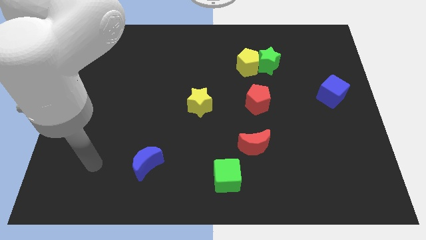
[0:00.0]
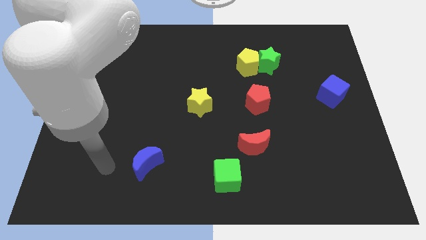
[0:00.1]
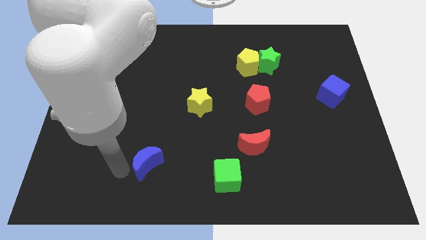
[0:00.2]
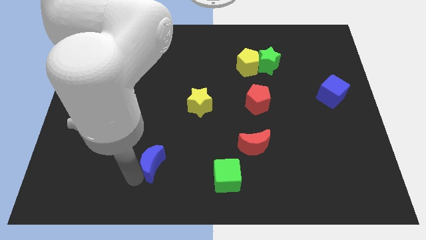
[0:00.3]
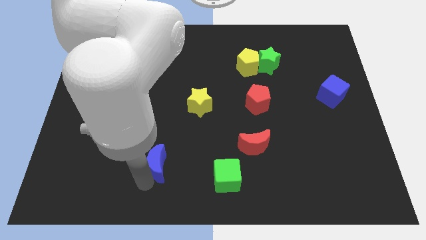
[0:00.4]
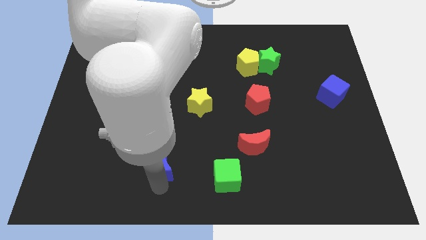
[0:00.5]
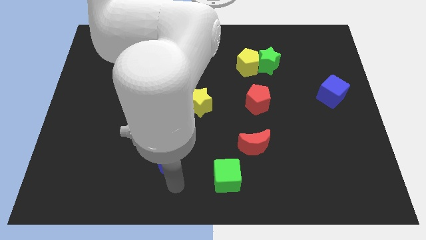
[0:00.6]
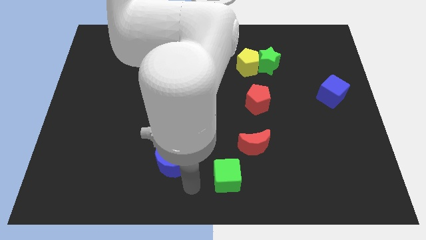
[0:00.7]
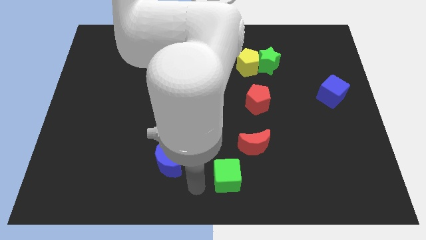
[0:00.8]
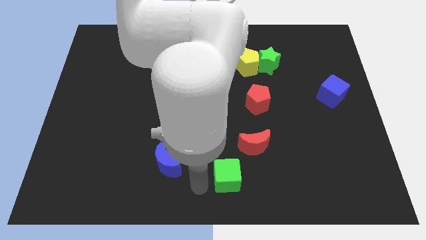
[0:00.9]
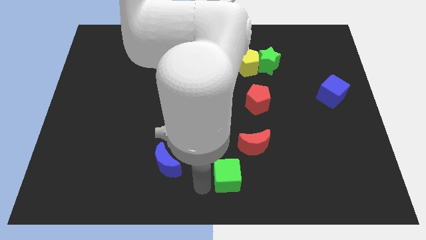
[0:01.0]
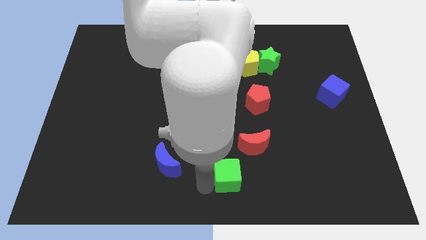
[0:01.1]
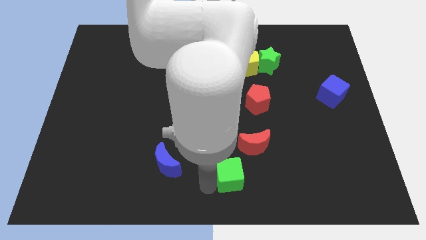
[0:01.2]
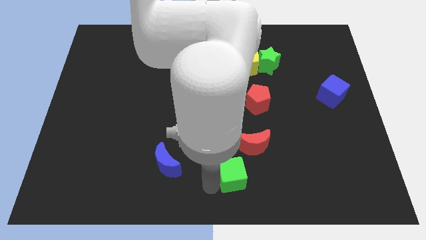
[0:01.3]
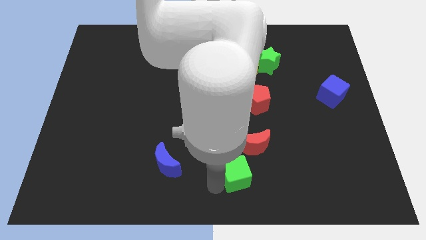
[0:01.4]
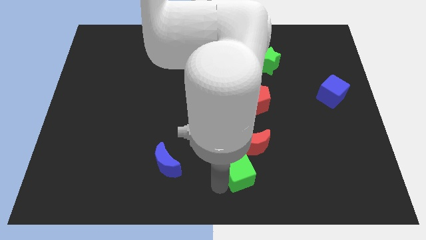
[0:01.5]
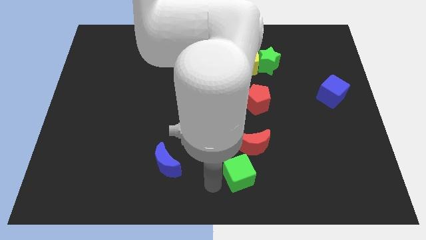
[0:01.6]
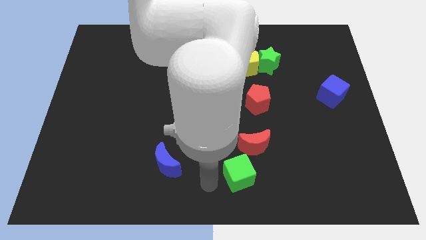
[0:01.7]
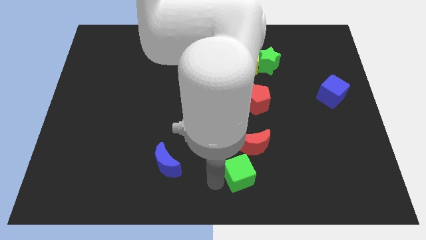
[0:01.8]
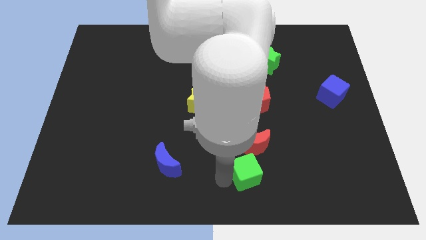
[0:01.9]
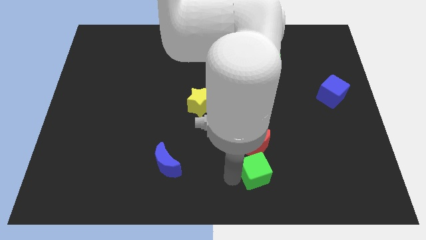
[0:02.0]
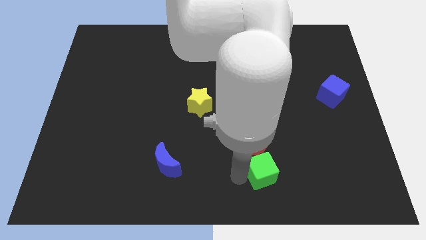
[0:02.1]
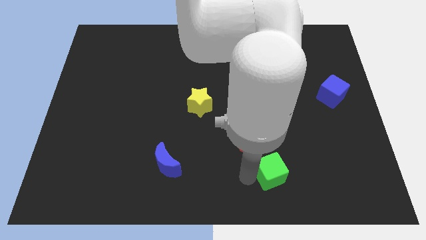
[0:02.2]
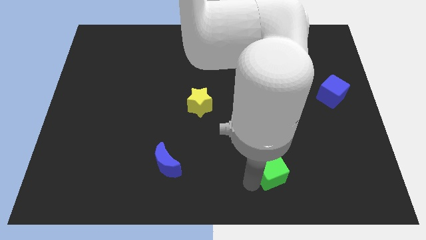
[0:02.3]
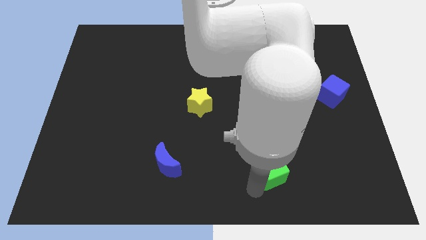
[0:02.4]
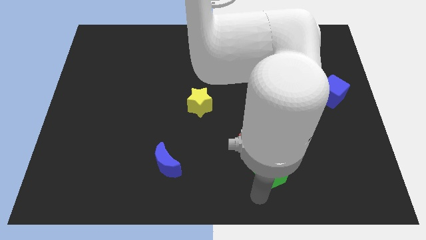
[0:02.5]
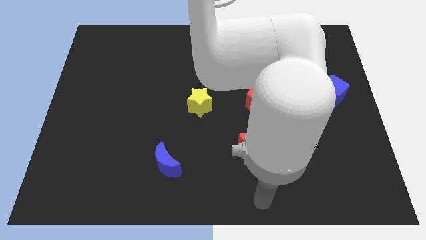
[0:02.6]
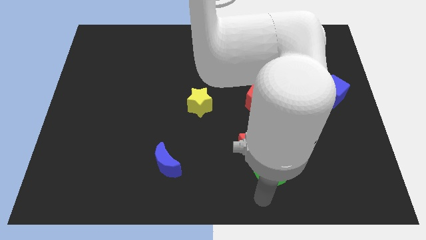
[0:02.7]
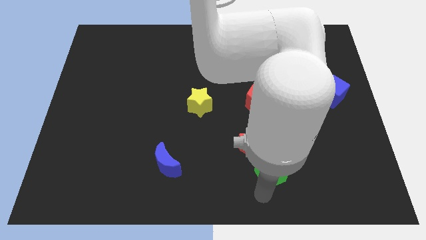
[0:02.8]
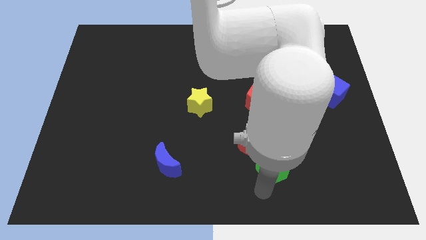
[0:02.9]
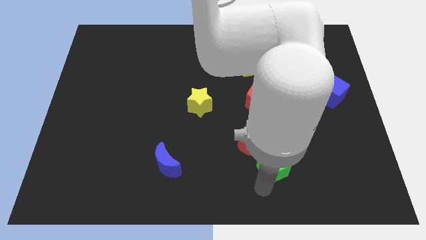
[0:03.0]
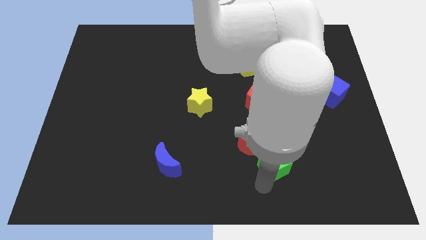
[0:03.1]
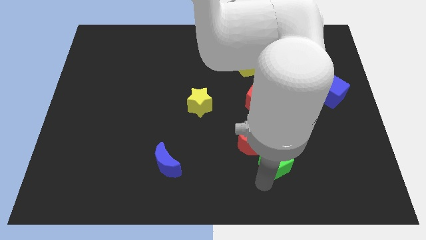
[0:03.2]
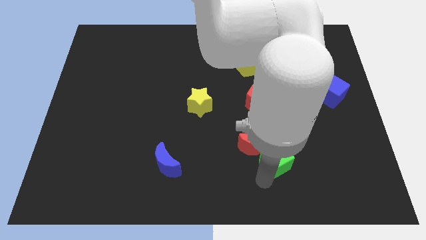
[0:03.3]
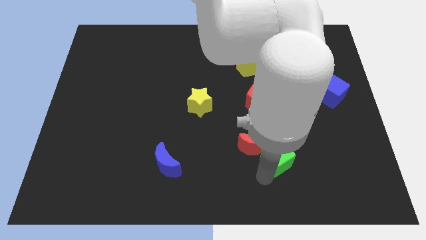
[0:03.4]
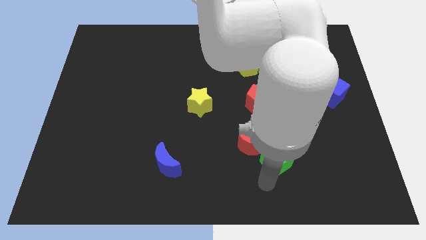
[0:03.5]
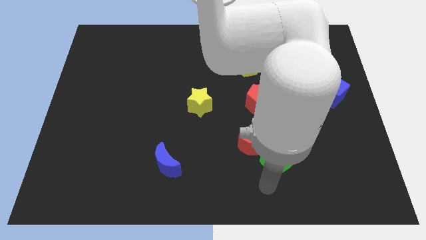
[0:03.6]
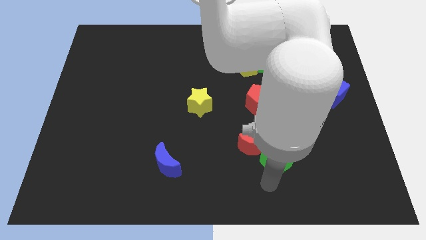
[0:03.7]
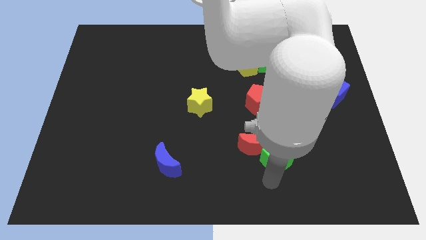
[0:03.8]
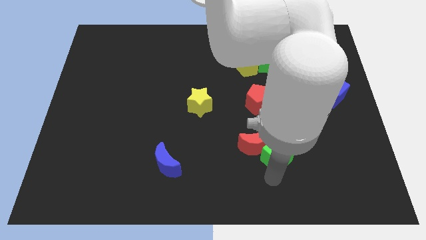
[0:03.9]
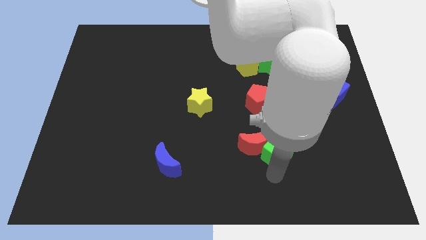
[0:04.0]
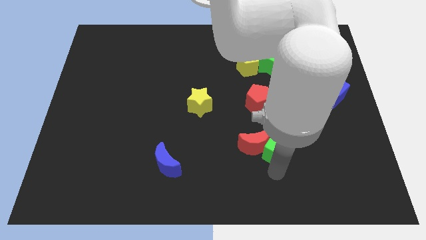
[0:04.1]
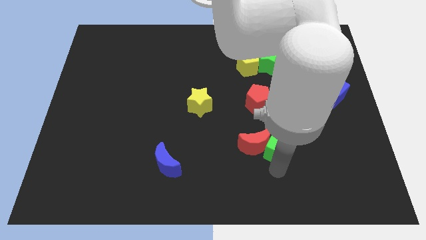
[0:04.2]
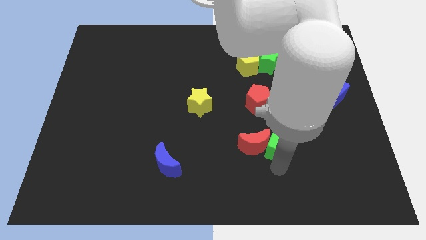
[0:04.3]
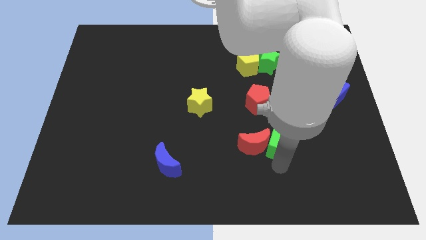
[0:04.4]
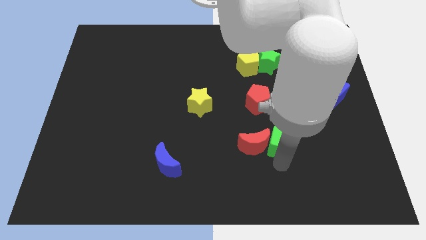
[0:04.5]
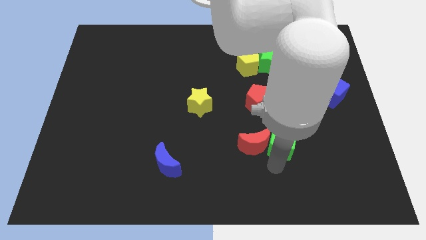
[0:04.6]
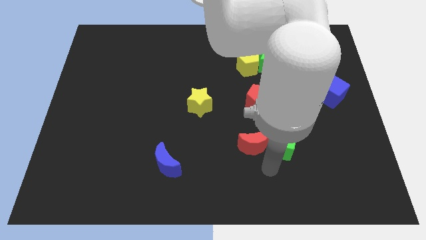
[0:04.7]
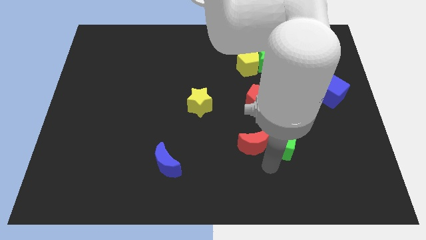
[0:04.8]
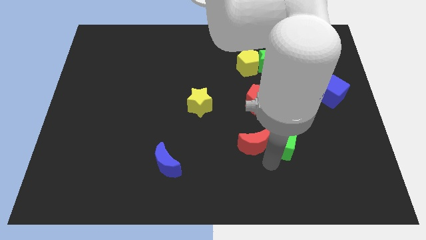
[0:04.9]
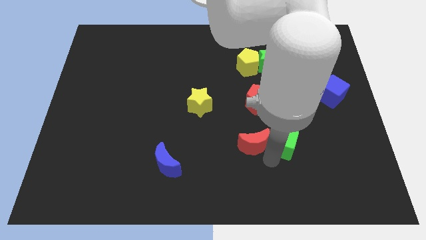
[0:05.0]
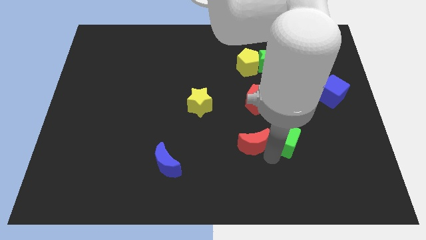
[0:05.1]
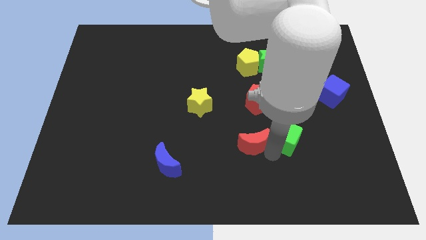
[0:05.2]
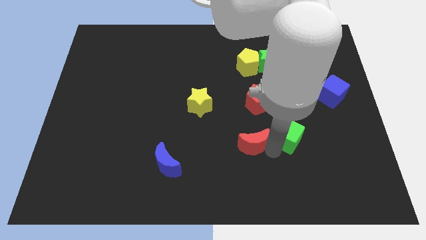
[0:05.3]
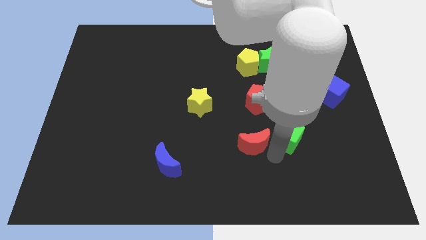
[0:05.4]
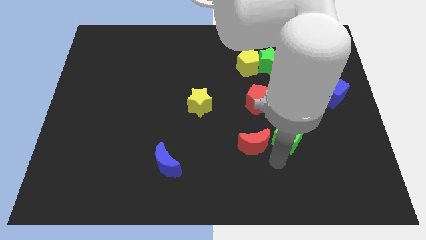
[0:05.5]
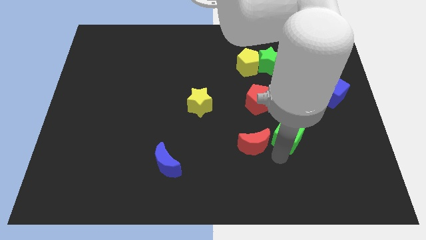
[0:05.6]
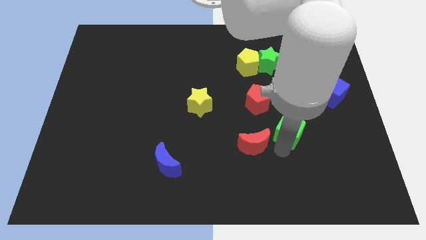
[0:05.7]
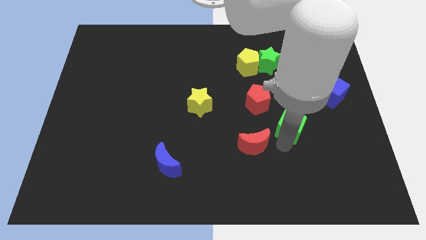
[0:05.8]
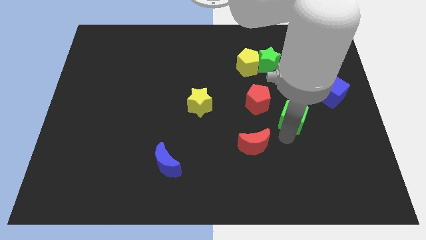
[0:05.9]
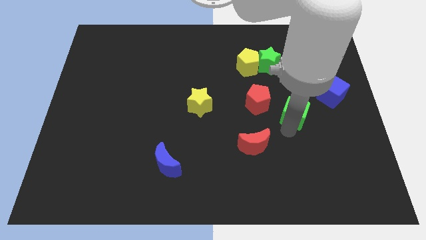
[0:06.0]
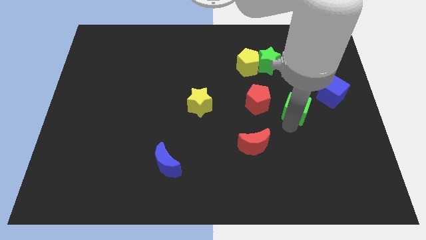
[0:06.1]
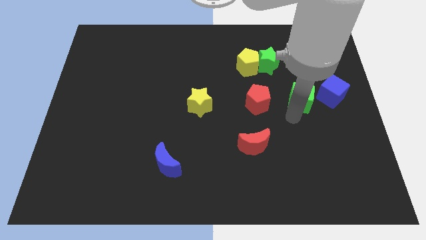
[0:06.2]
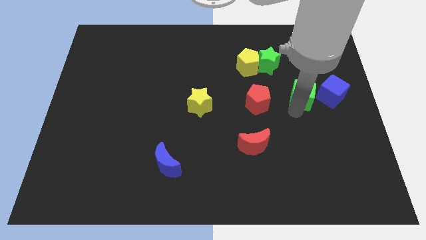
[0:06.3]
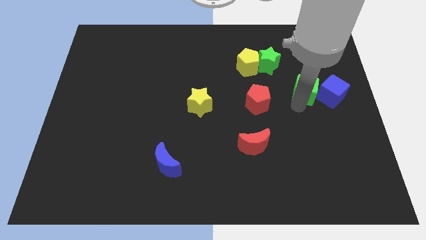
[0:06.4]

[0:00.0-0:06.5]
move the green cube to the top left side of the blue cube
